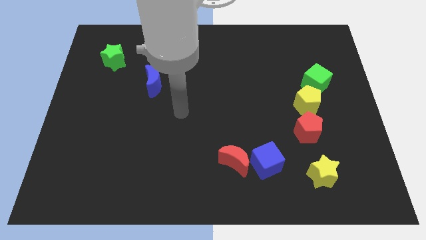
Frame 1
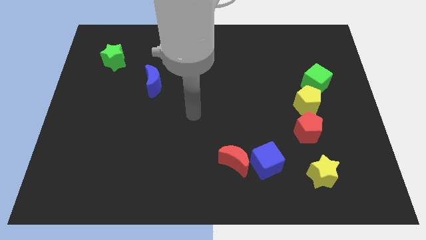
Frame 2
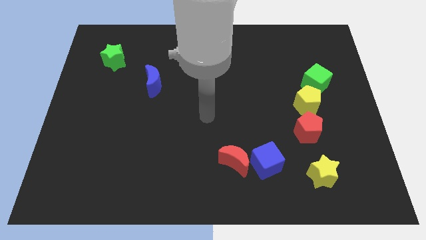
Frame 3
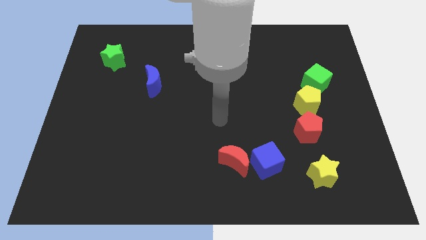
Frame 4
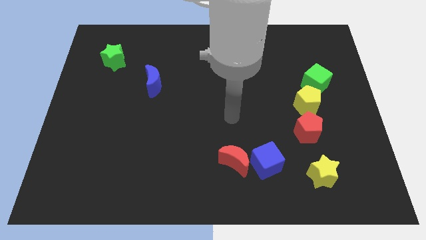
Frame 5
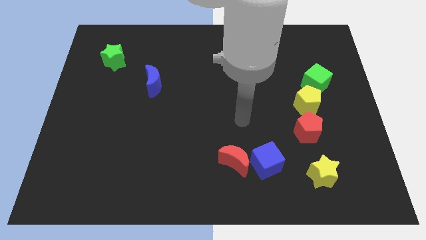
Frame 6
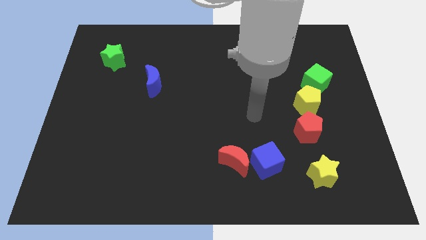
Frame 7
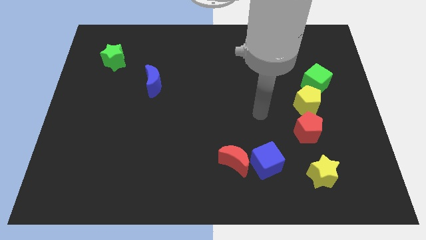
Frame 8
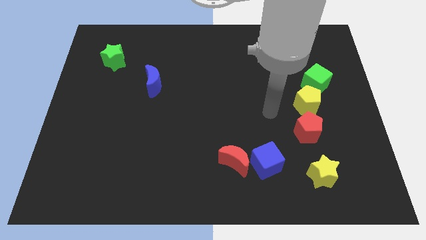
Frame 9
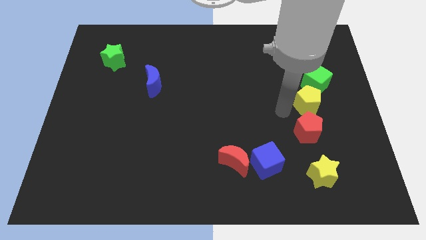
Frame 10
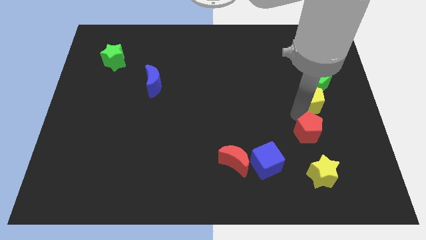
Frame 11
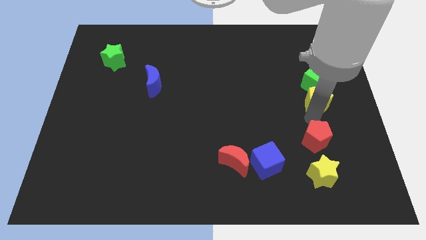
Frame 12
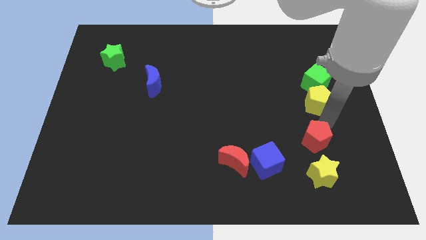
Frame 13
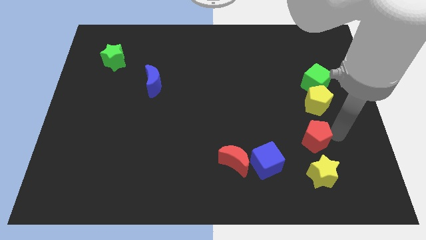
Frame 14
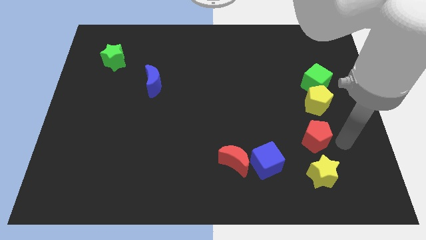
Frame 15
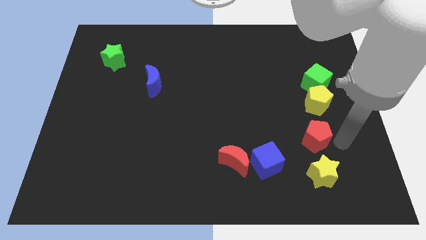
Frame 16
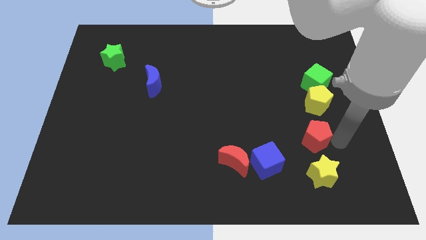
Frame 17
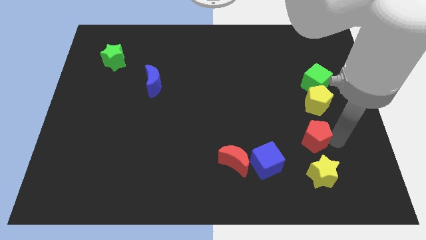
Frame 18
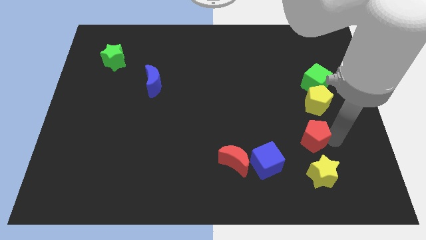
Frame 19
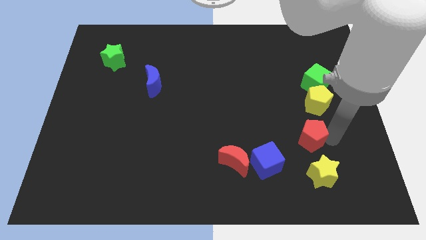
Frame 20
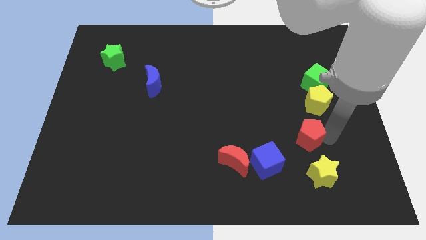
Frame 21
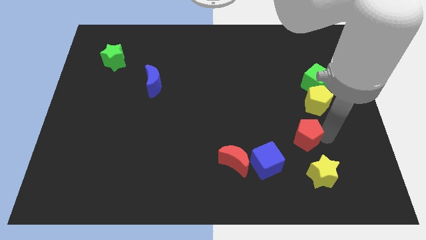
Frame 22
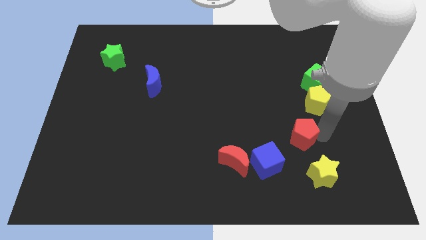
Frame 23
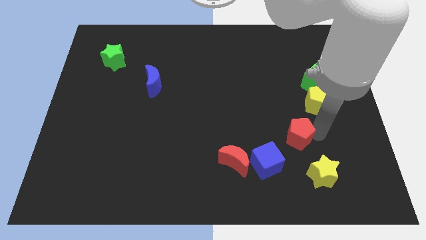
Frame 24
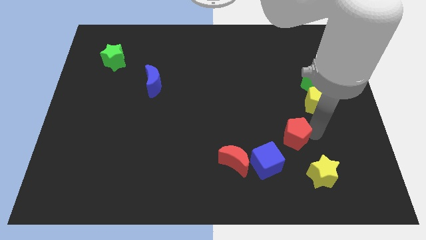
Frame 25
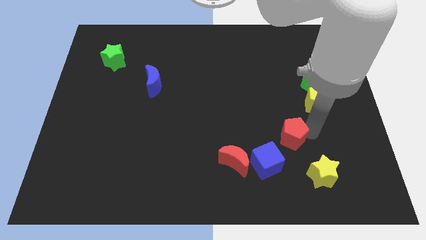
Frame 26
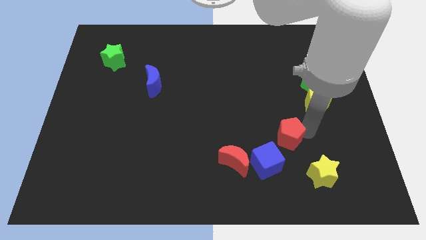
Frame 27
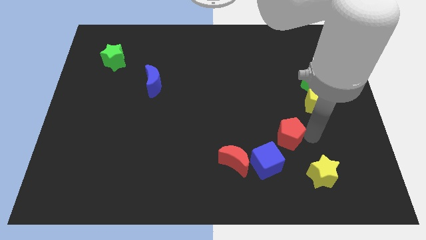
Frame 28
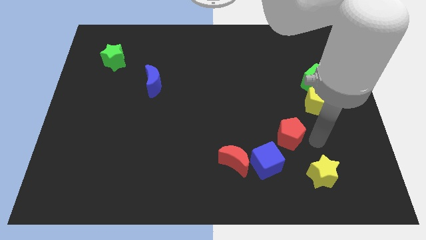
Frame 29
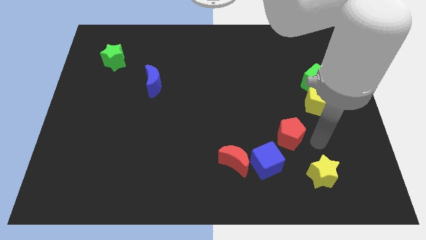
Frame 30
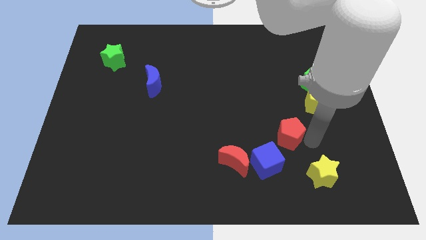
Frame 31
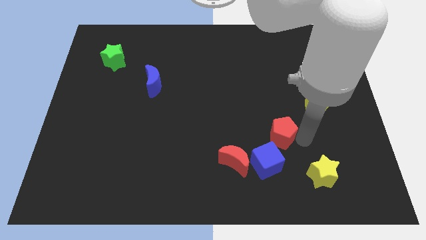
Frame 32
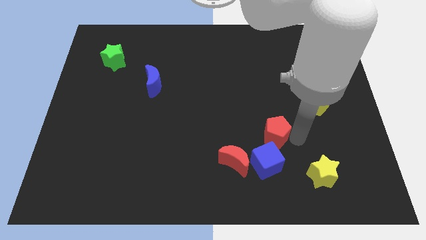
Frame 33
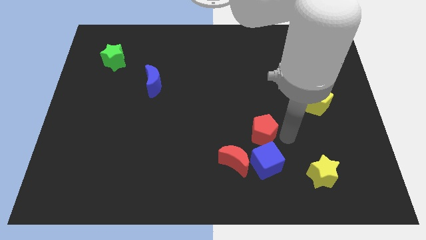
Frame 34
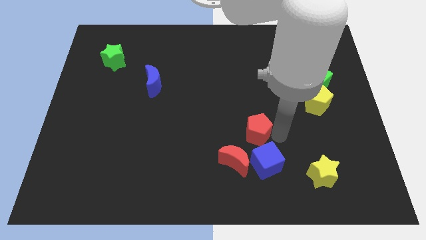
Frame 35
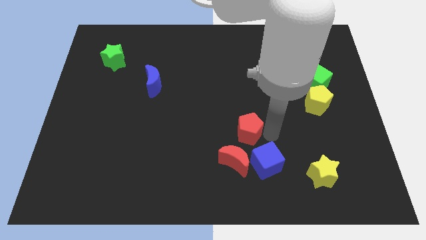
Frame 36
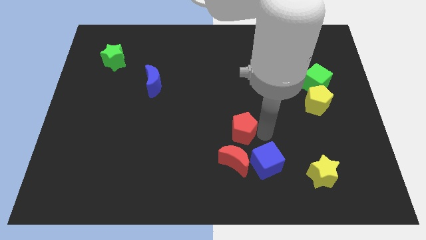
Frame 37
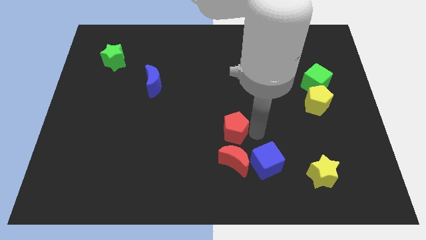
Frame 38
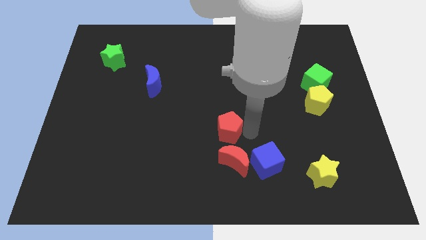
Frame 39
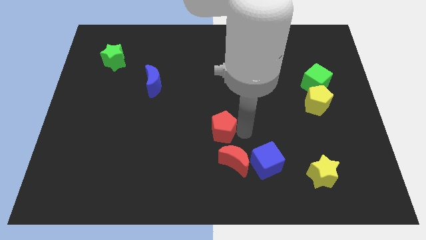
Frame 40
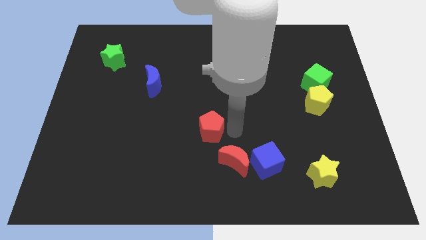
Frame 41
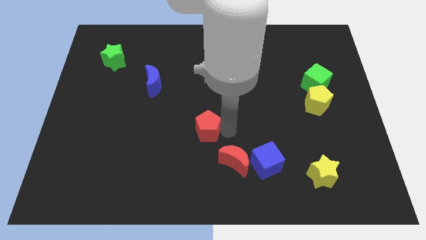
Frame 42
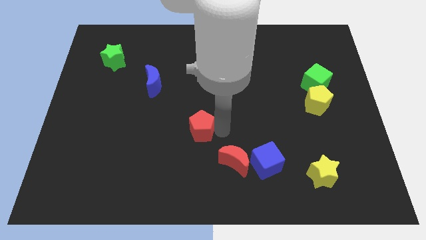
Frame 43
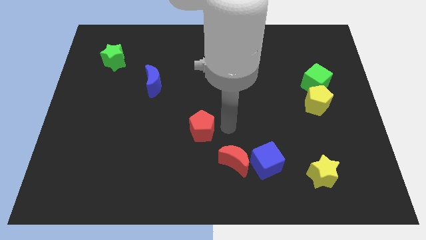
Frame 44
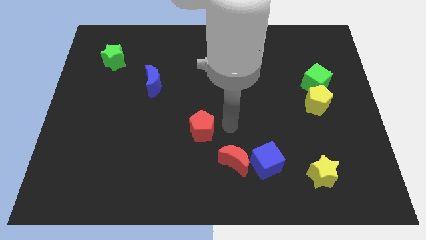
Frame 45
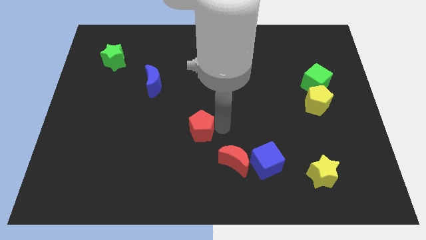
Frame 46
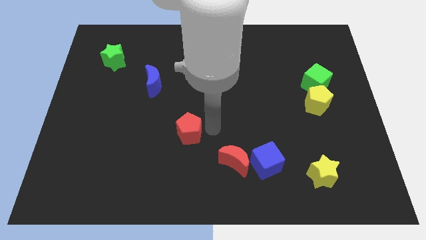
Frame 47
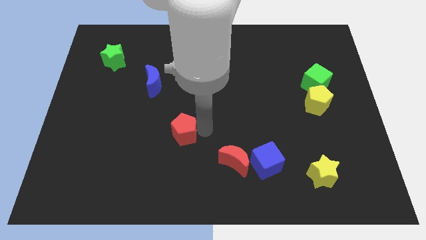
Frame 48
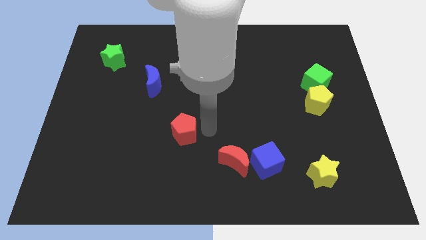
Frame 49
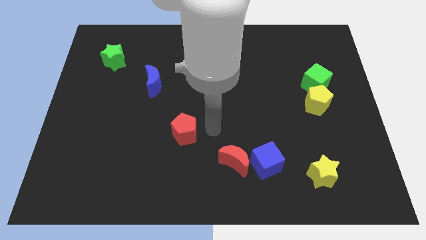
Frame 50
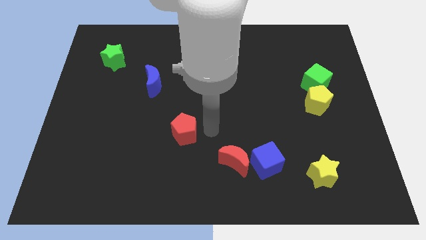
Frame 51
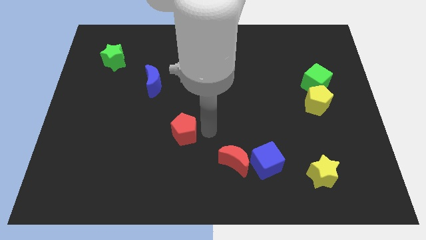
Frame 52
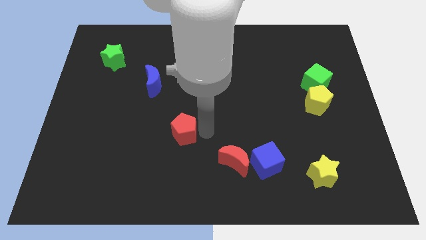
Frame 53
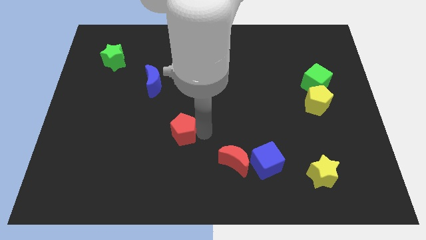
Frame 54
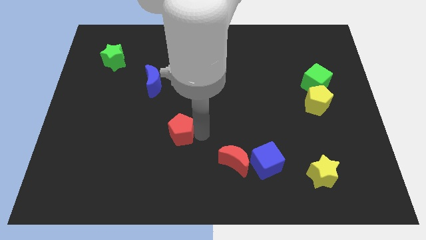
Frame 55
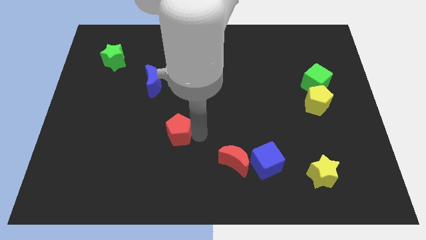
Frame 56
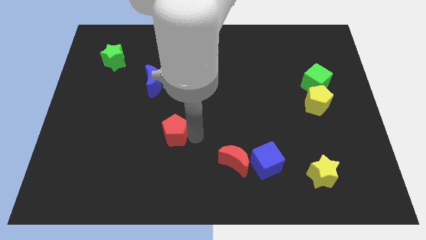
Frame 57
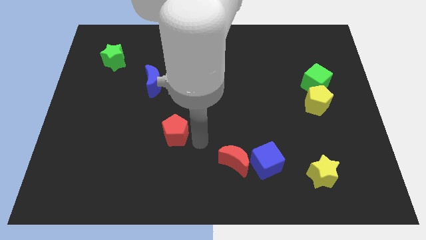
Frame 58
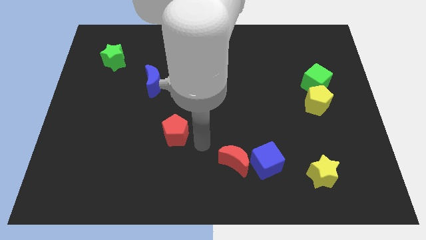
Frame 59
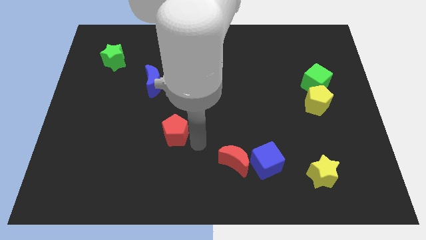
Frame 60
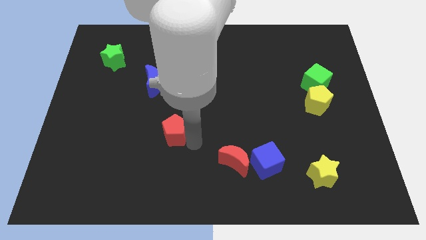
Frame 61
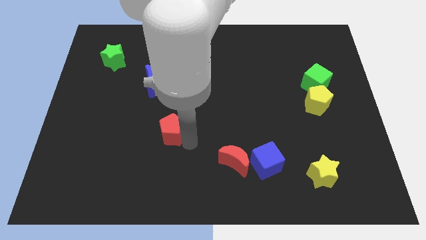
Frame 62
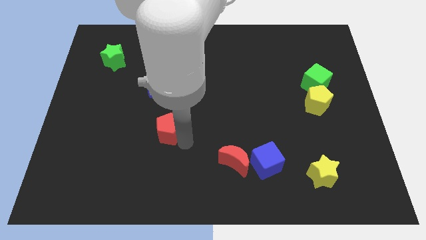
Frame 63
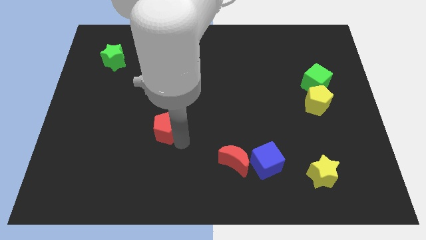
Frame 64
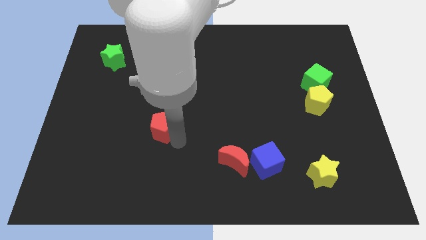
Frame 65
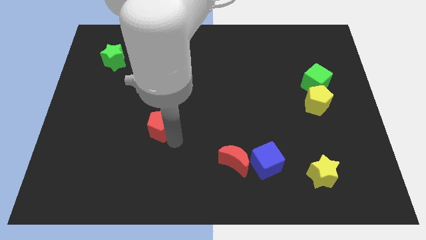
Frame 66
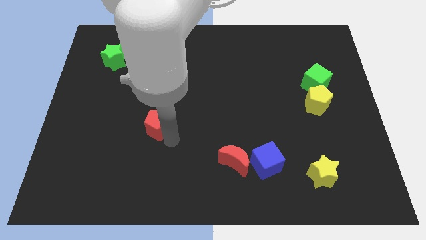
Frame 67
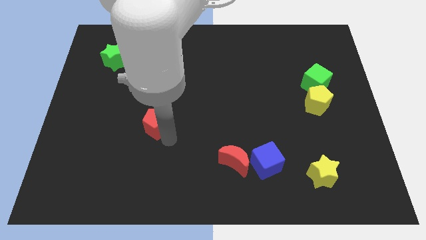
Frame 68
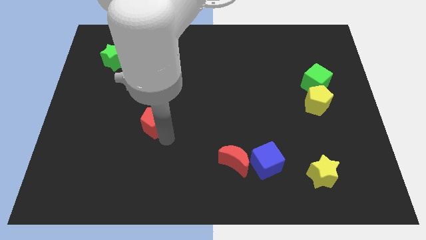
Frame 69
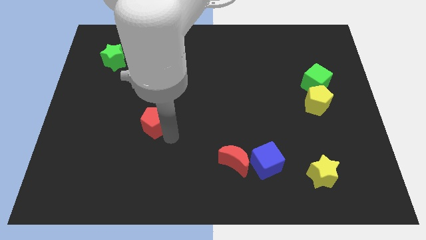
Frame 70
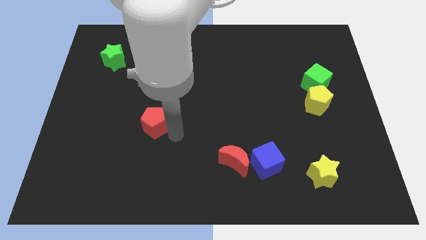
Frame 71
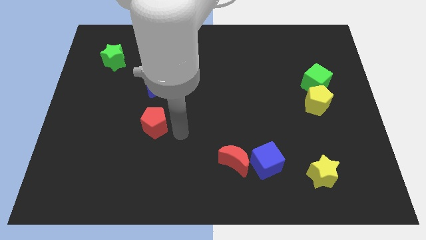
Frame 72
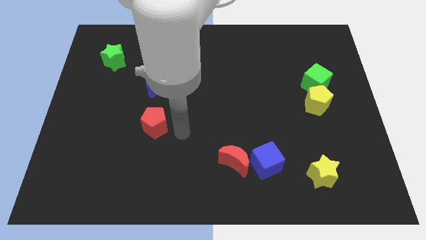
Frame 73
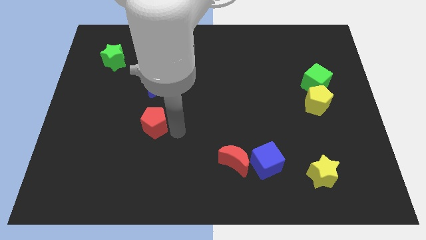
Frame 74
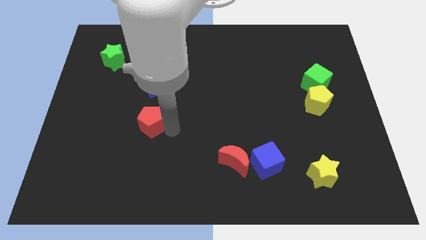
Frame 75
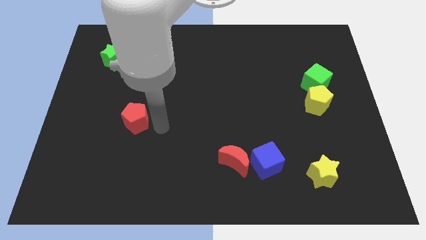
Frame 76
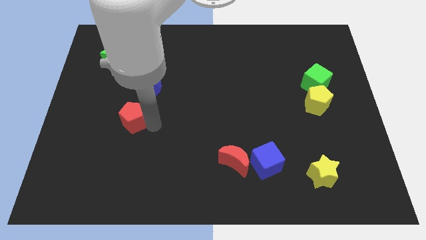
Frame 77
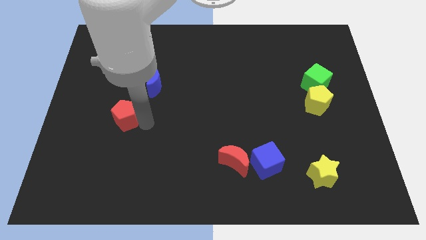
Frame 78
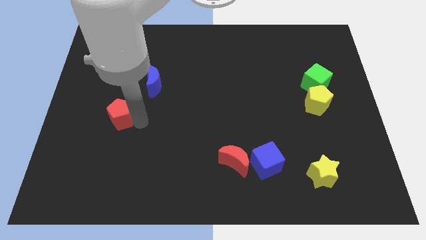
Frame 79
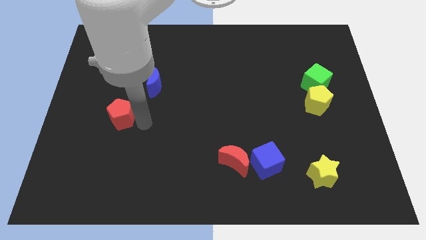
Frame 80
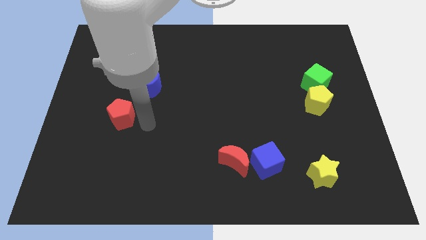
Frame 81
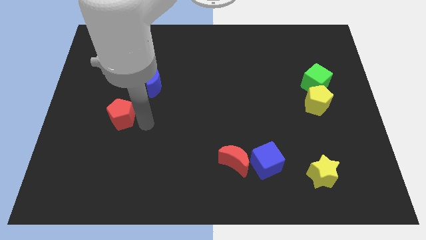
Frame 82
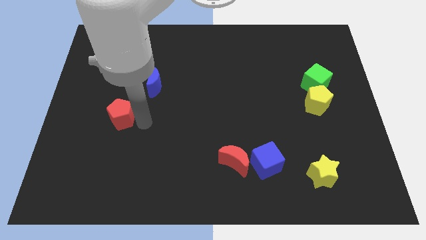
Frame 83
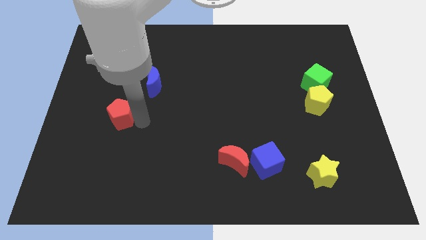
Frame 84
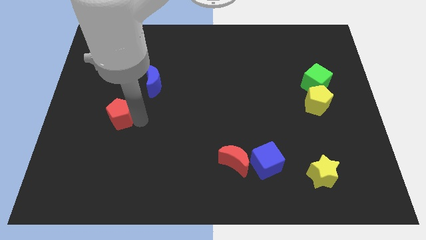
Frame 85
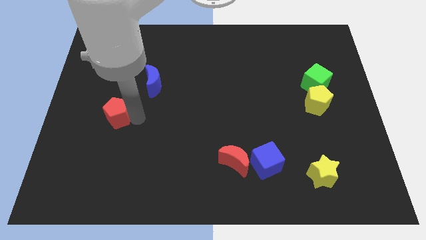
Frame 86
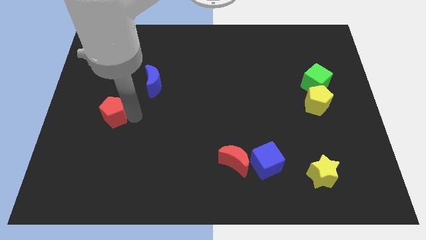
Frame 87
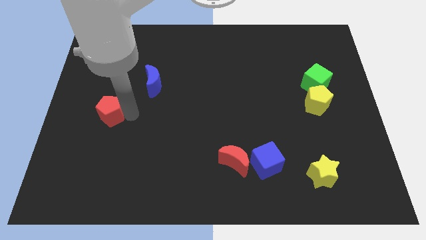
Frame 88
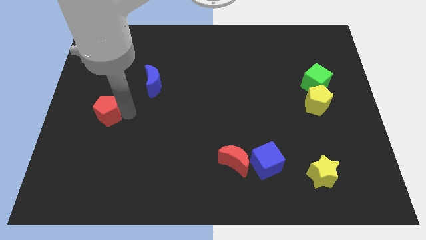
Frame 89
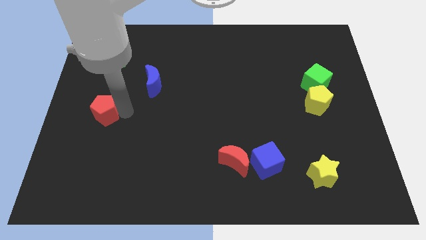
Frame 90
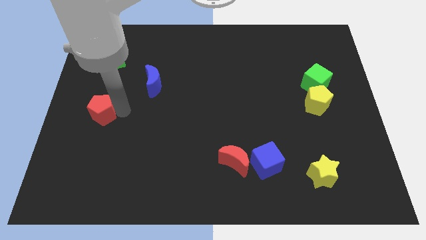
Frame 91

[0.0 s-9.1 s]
push the red pentagon to the center left
